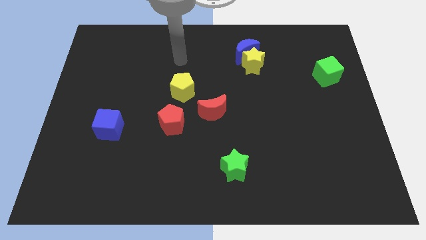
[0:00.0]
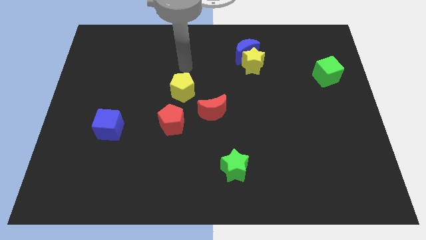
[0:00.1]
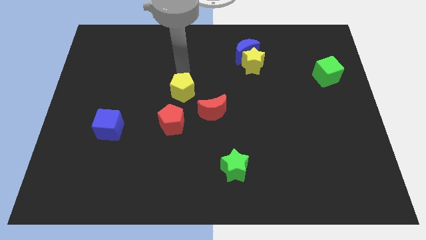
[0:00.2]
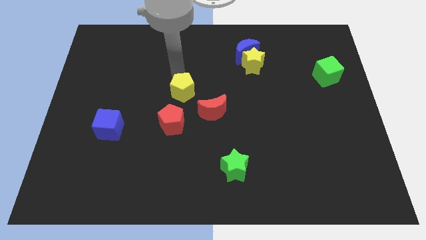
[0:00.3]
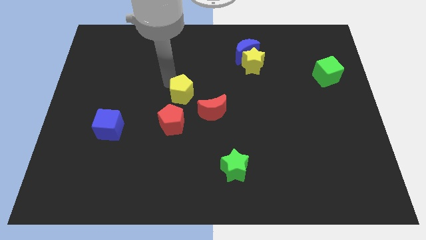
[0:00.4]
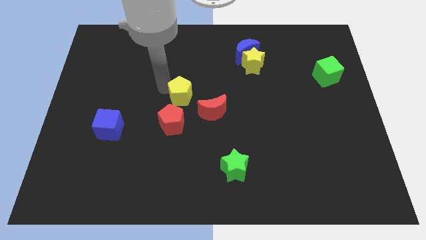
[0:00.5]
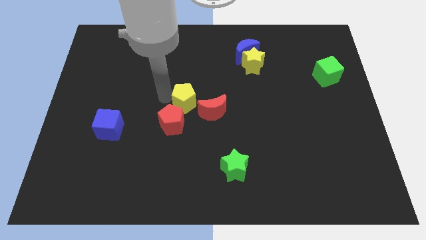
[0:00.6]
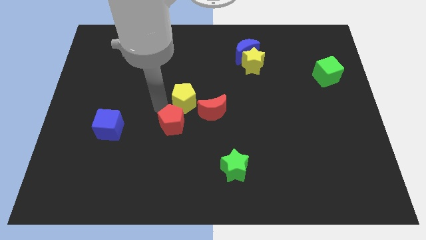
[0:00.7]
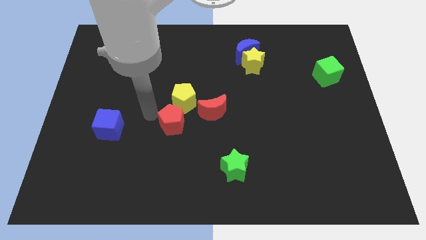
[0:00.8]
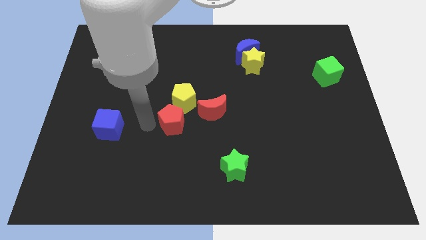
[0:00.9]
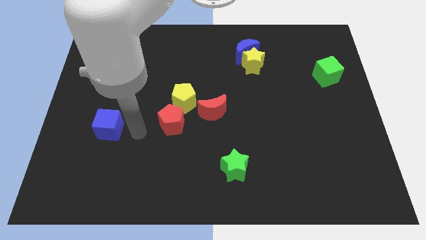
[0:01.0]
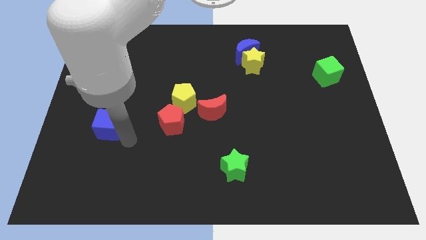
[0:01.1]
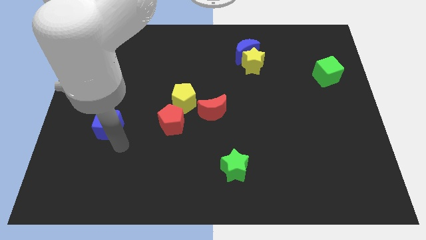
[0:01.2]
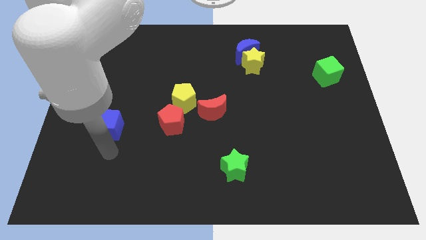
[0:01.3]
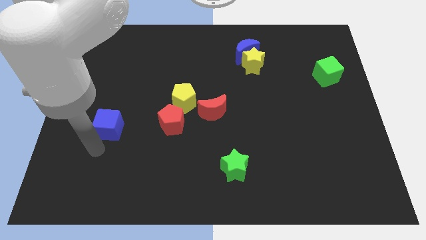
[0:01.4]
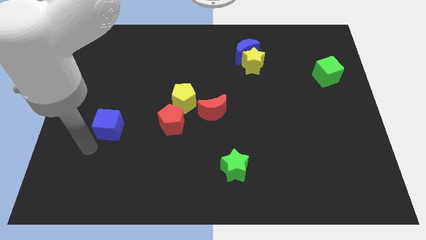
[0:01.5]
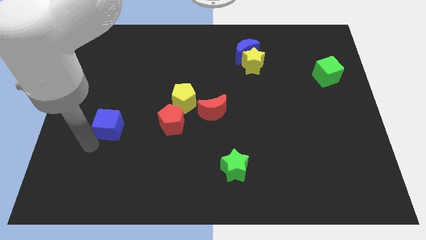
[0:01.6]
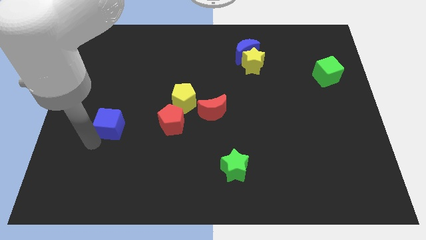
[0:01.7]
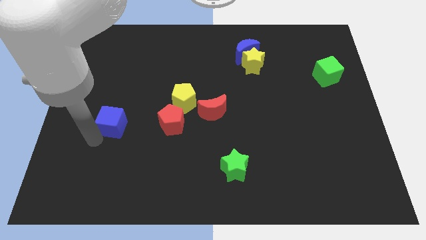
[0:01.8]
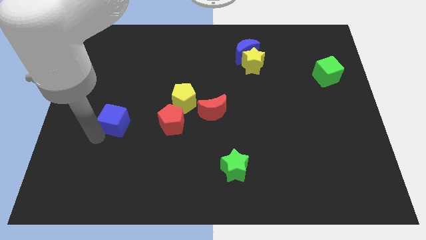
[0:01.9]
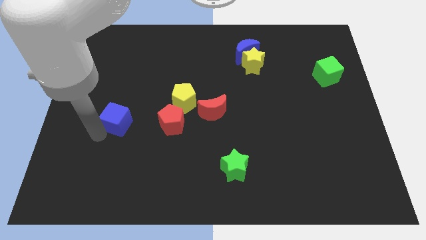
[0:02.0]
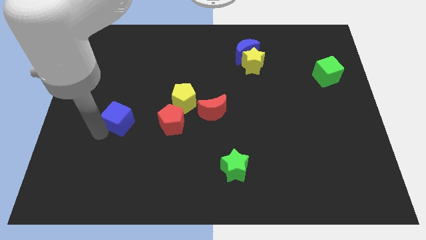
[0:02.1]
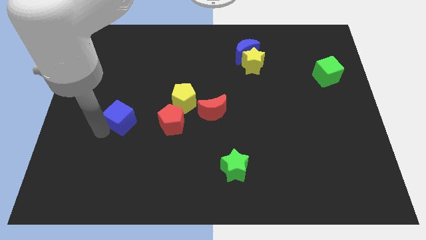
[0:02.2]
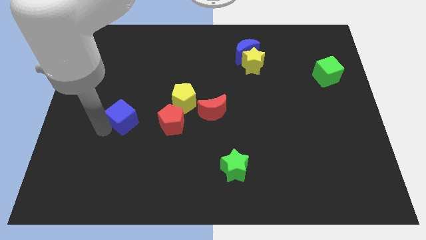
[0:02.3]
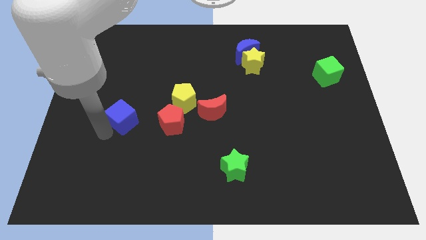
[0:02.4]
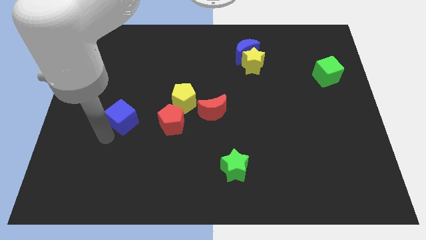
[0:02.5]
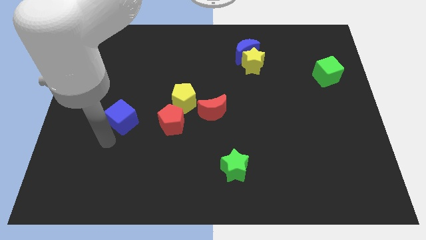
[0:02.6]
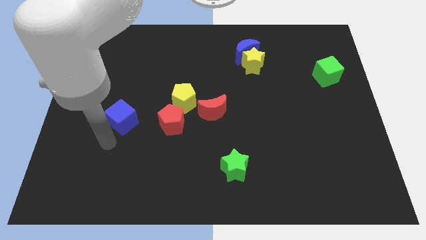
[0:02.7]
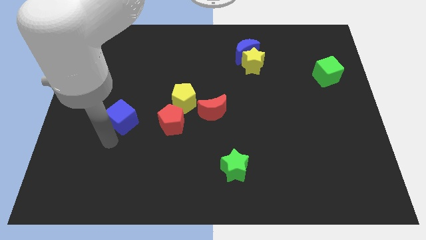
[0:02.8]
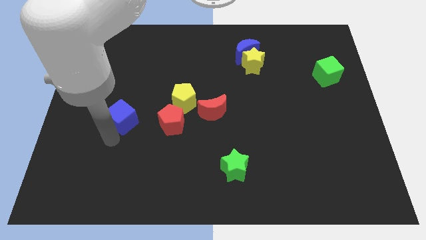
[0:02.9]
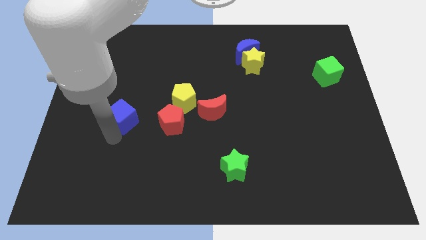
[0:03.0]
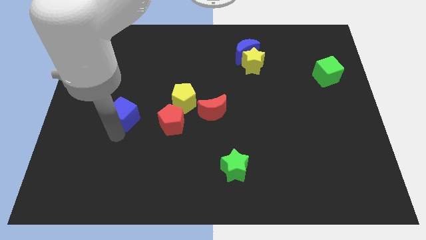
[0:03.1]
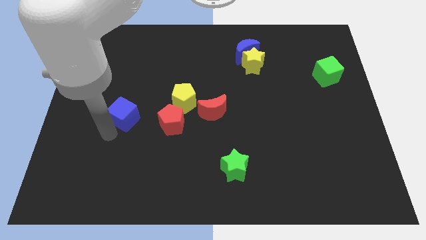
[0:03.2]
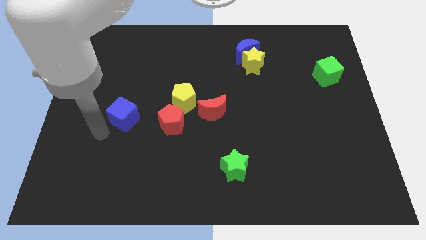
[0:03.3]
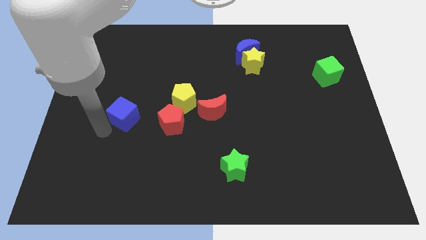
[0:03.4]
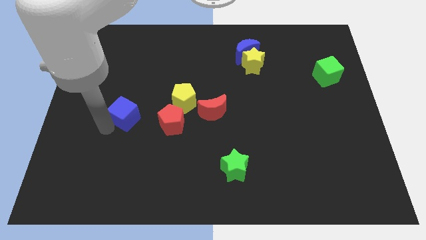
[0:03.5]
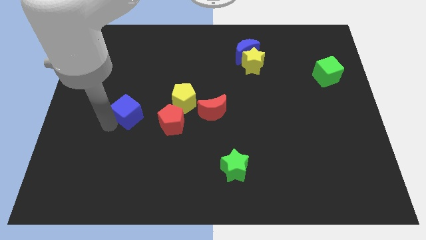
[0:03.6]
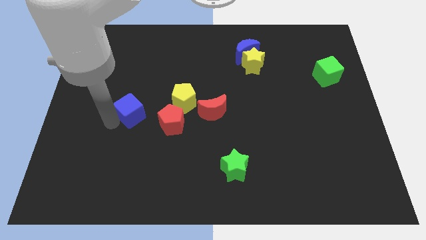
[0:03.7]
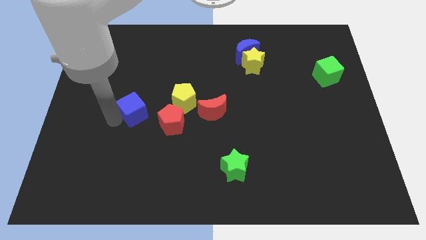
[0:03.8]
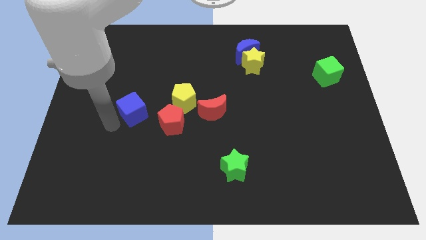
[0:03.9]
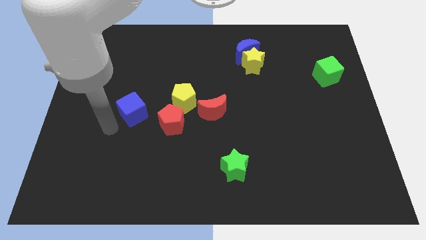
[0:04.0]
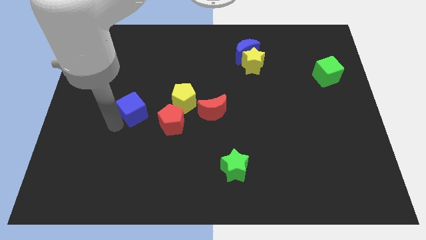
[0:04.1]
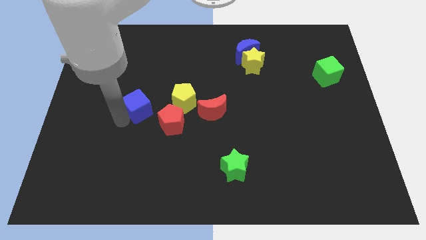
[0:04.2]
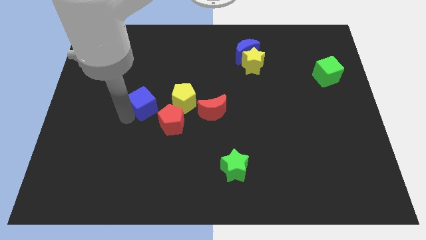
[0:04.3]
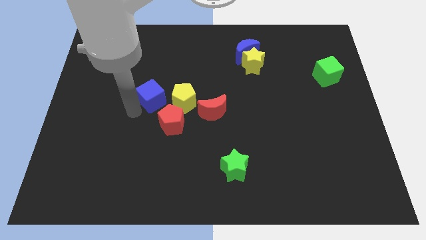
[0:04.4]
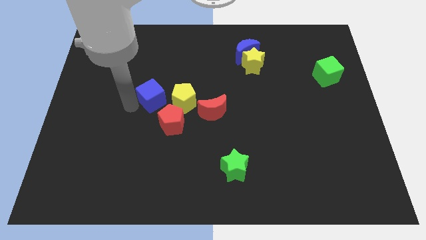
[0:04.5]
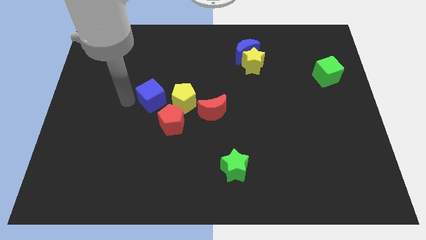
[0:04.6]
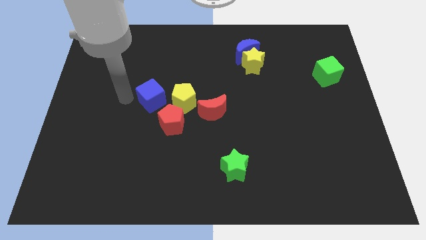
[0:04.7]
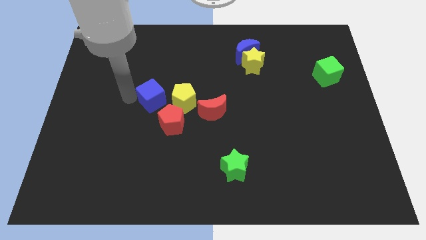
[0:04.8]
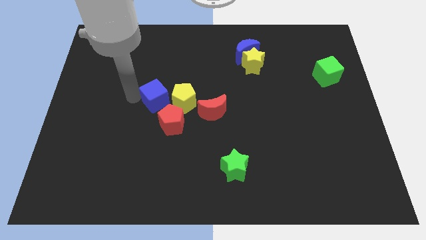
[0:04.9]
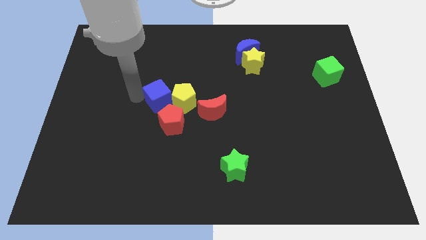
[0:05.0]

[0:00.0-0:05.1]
push the blue cube to the yellow pentagon

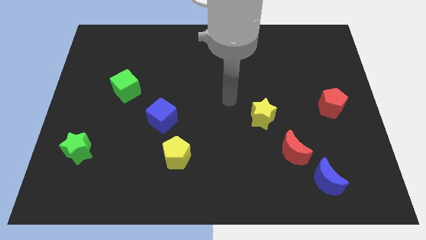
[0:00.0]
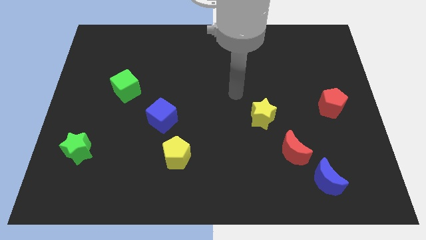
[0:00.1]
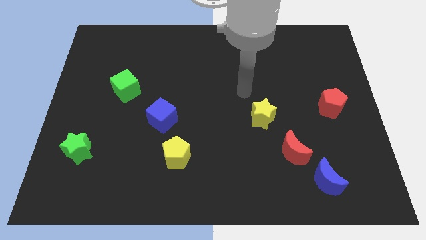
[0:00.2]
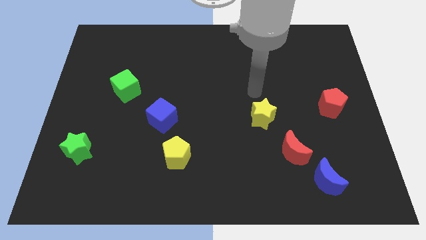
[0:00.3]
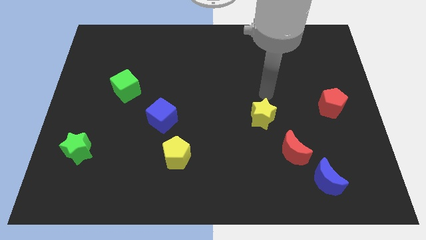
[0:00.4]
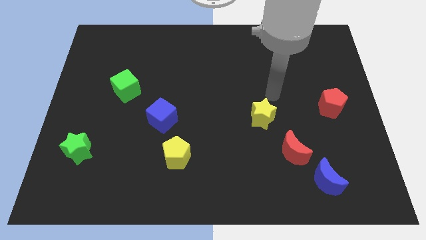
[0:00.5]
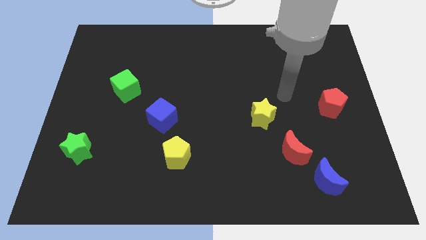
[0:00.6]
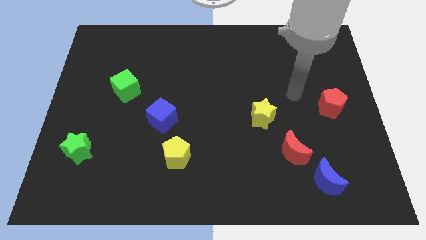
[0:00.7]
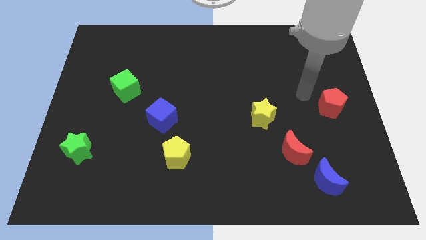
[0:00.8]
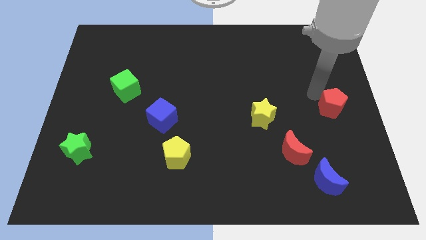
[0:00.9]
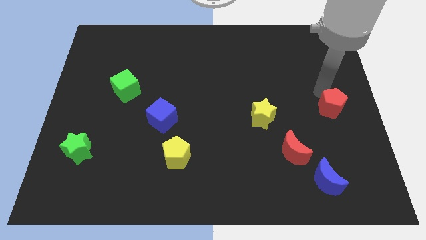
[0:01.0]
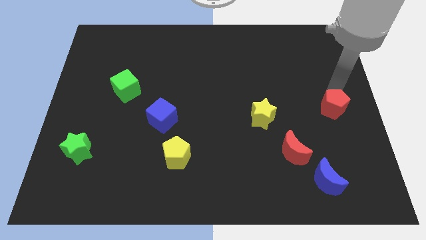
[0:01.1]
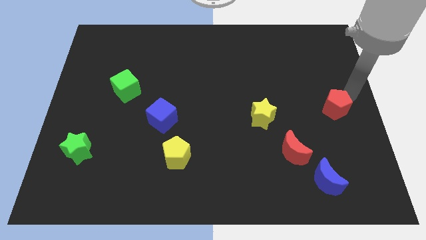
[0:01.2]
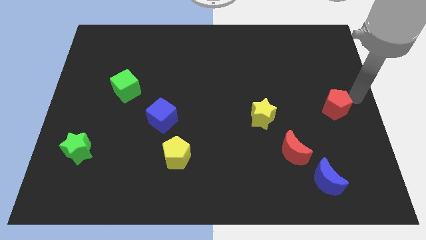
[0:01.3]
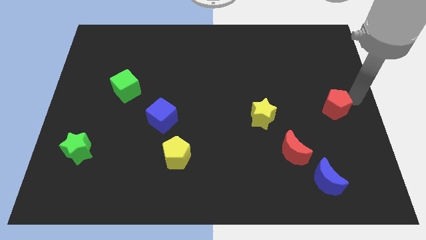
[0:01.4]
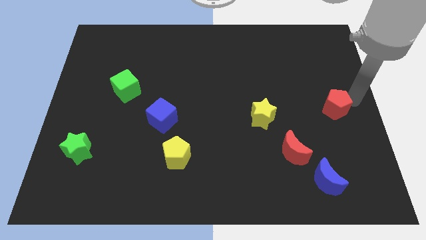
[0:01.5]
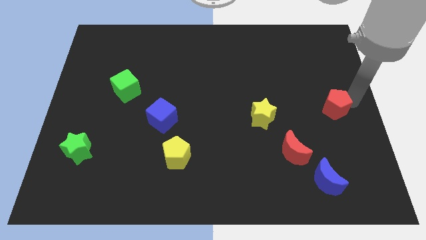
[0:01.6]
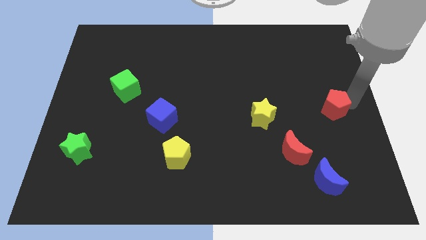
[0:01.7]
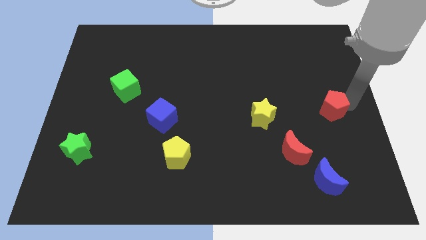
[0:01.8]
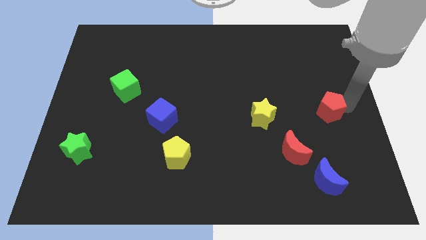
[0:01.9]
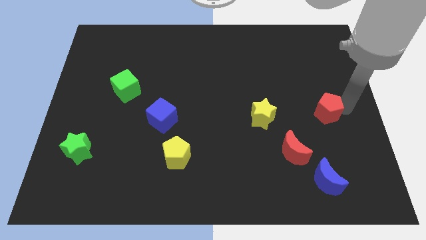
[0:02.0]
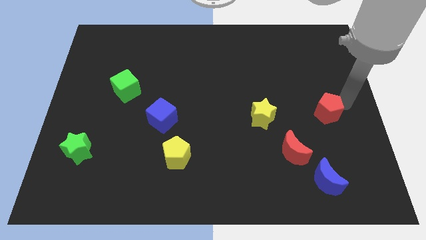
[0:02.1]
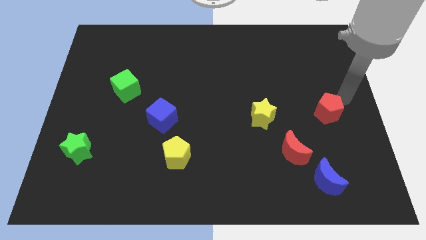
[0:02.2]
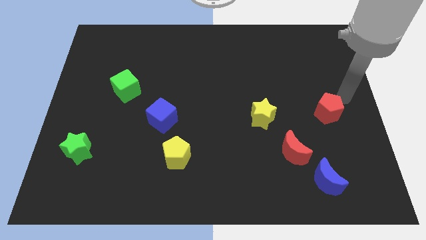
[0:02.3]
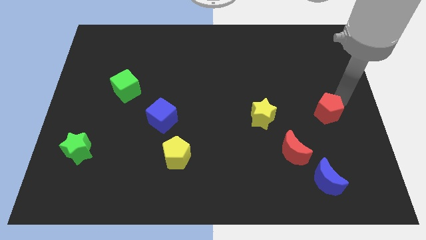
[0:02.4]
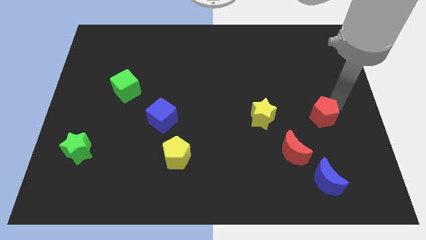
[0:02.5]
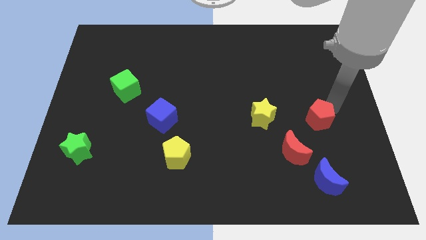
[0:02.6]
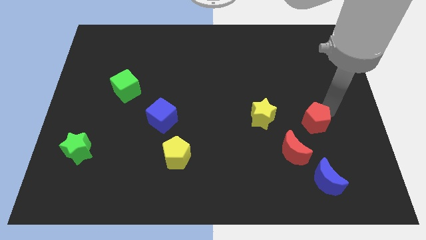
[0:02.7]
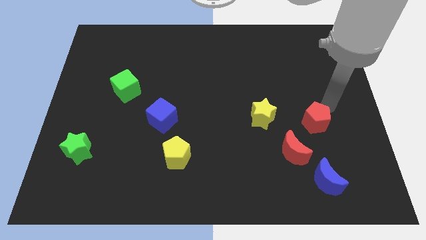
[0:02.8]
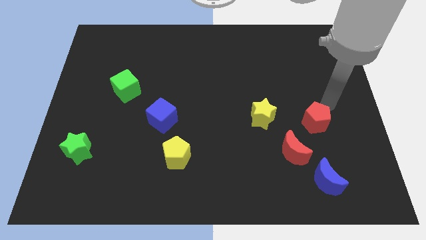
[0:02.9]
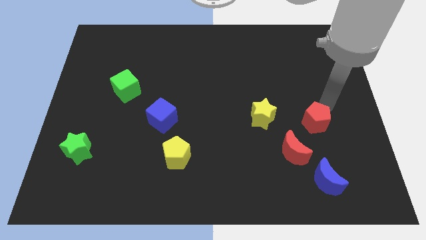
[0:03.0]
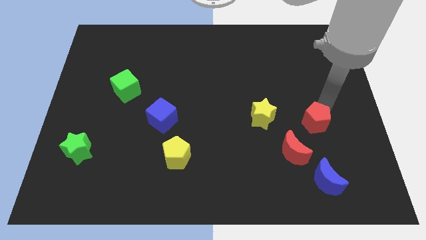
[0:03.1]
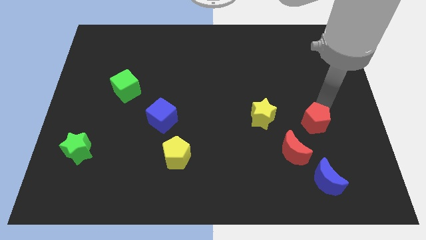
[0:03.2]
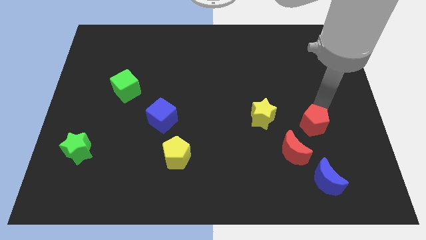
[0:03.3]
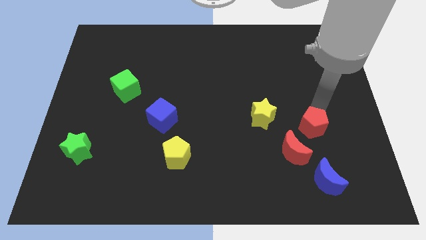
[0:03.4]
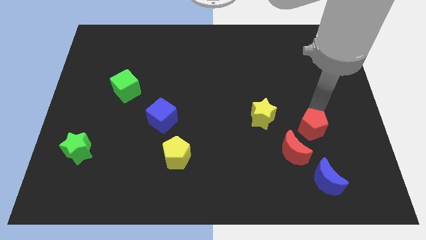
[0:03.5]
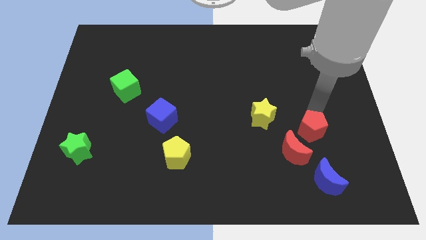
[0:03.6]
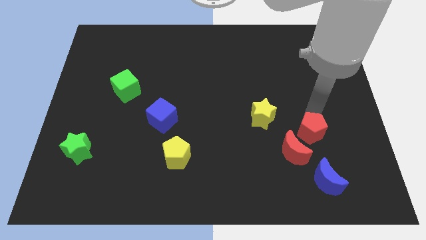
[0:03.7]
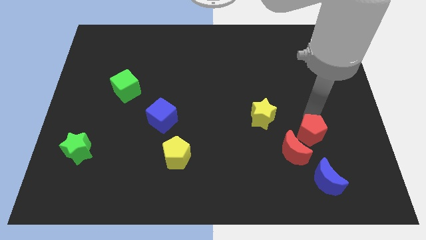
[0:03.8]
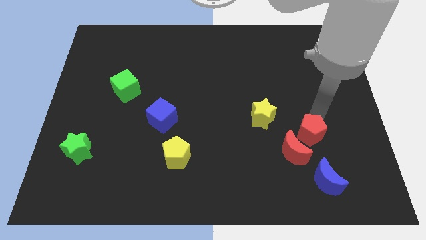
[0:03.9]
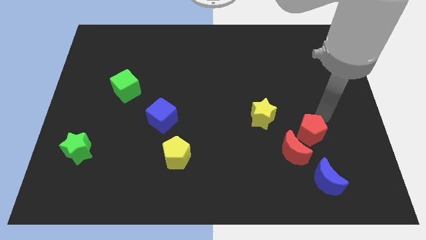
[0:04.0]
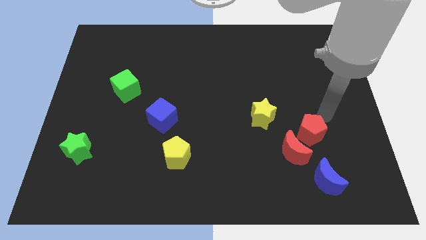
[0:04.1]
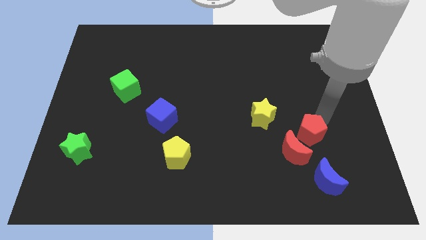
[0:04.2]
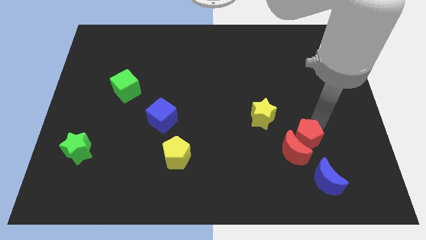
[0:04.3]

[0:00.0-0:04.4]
put the red pentagon close to the red moon
